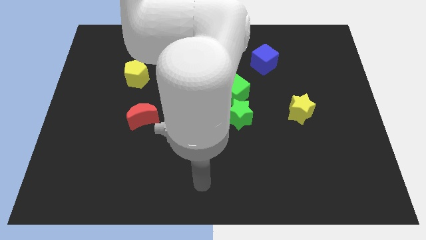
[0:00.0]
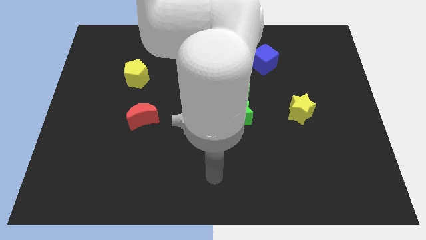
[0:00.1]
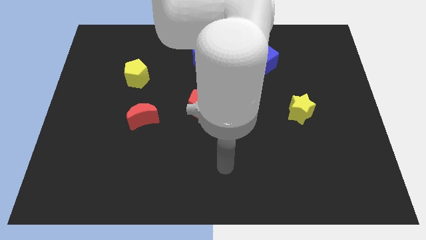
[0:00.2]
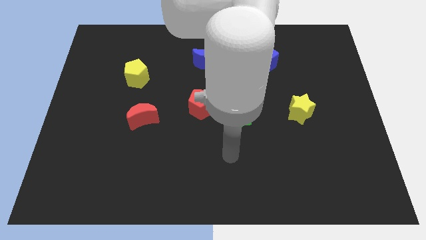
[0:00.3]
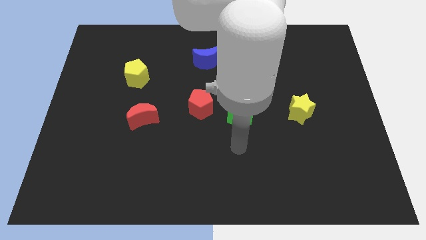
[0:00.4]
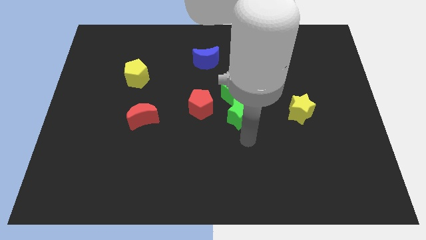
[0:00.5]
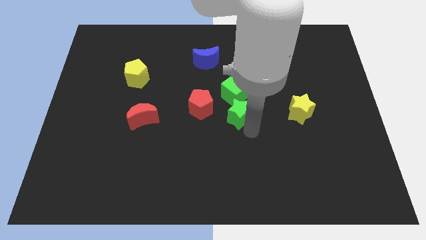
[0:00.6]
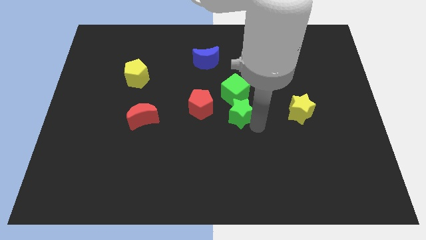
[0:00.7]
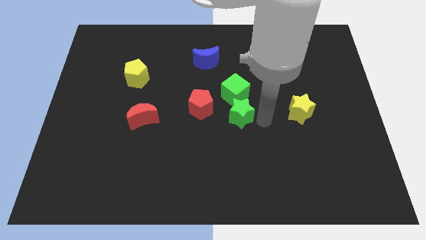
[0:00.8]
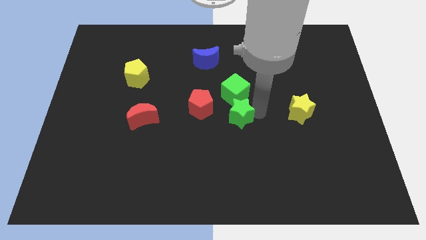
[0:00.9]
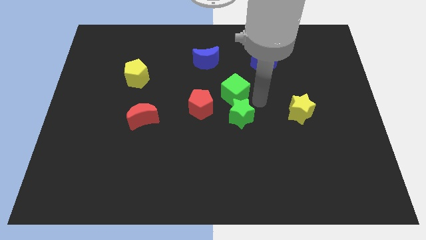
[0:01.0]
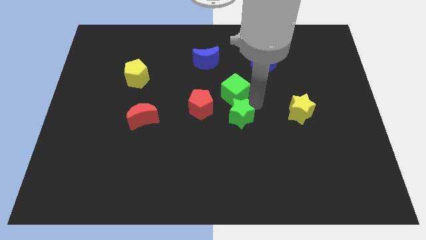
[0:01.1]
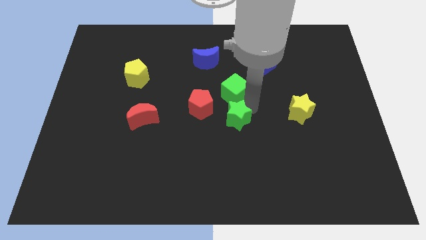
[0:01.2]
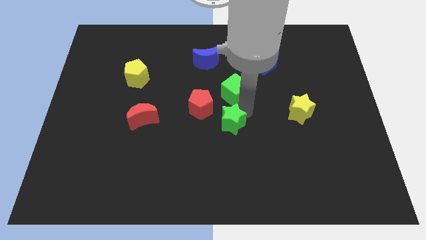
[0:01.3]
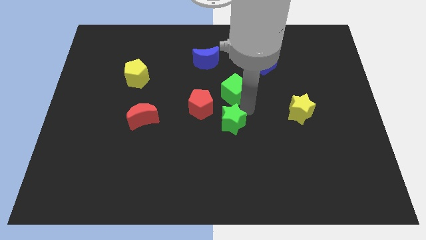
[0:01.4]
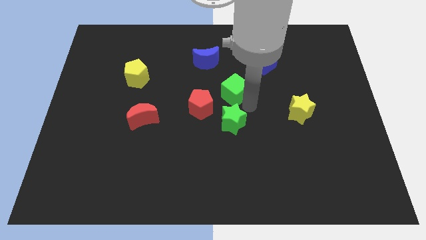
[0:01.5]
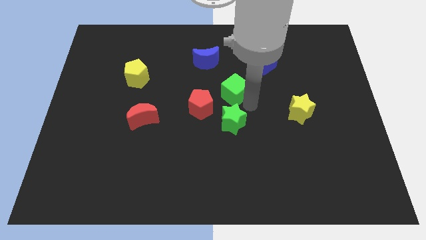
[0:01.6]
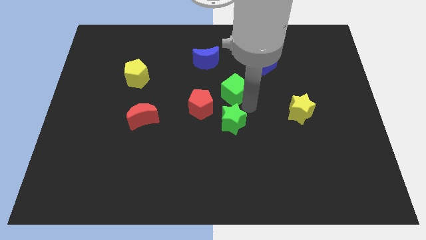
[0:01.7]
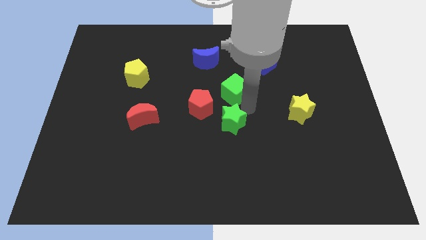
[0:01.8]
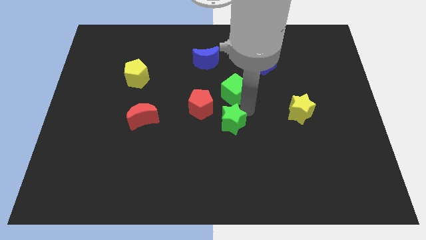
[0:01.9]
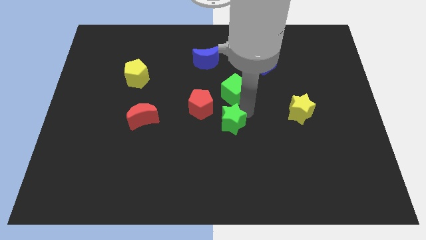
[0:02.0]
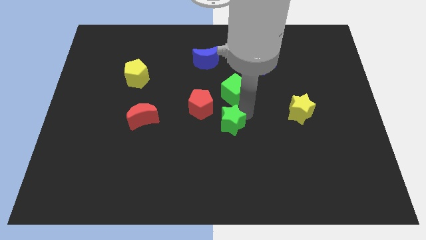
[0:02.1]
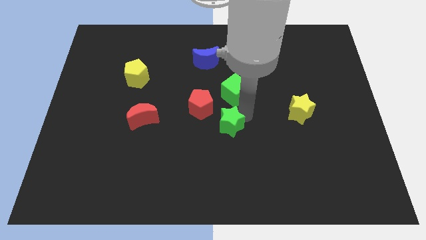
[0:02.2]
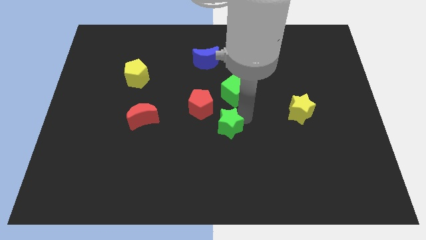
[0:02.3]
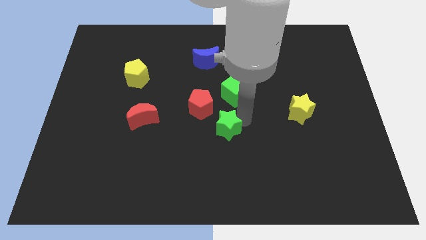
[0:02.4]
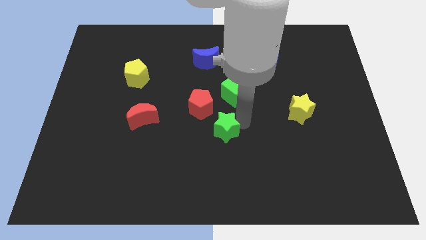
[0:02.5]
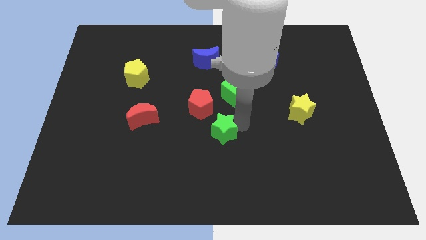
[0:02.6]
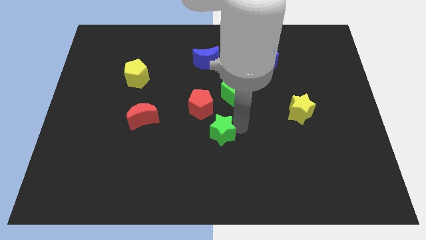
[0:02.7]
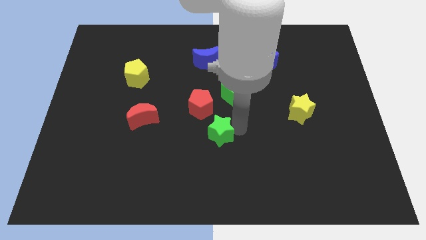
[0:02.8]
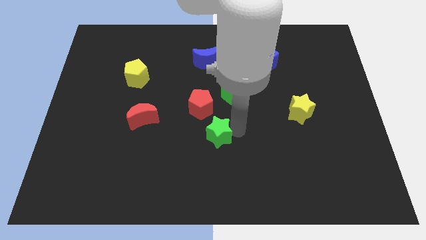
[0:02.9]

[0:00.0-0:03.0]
push the green star a little bit down and to the left

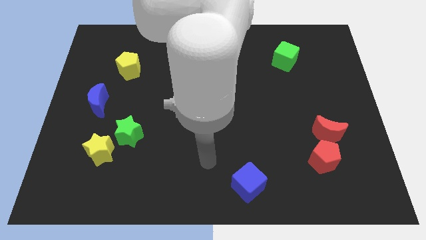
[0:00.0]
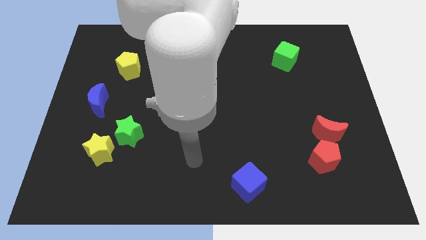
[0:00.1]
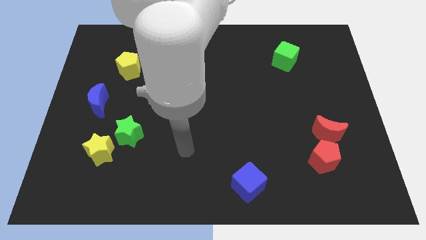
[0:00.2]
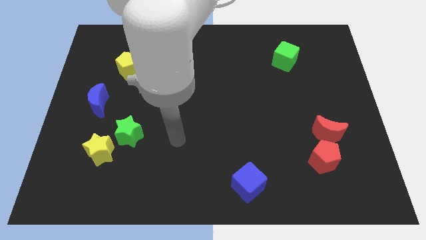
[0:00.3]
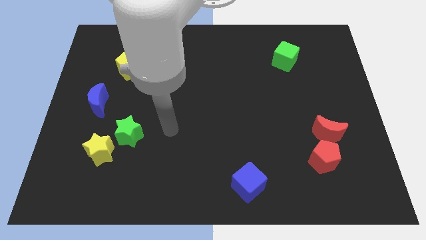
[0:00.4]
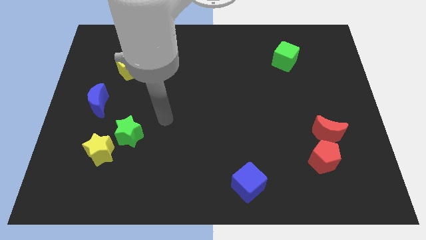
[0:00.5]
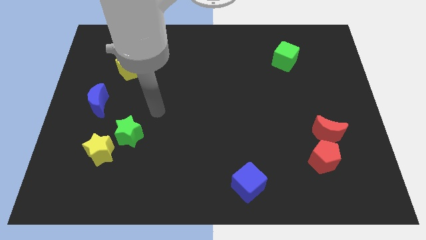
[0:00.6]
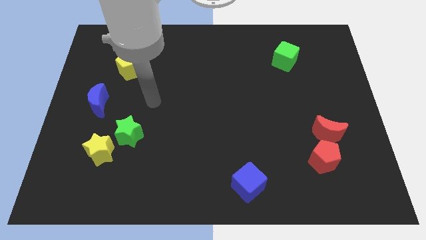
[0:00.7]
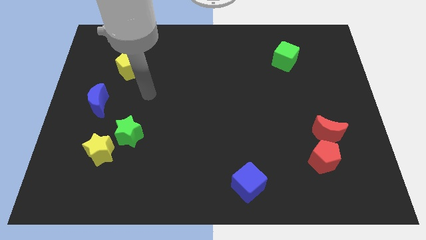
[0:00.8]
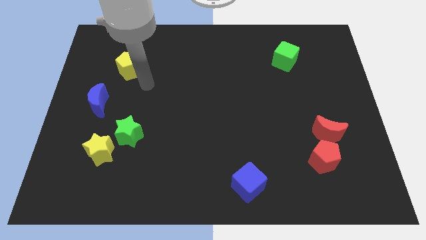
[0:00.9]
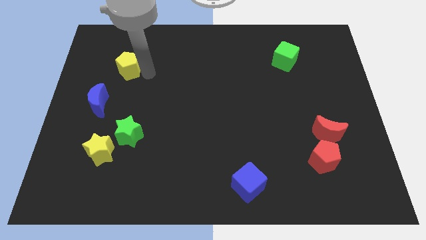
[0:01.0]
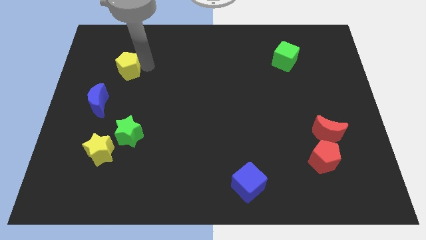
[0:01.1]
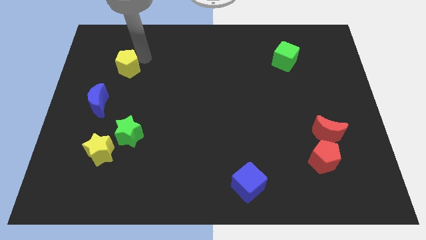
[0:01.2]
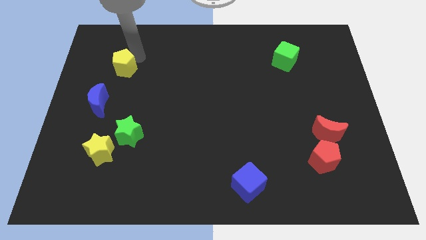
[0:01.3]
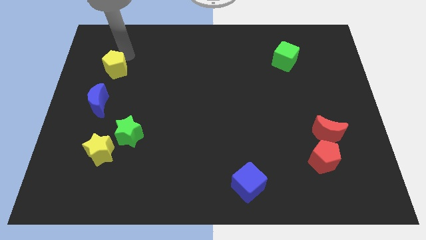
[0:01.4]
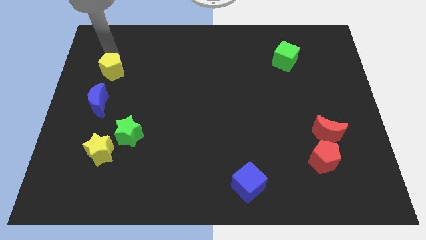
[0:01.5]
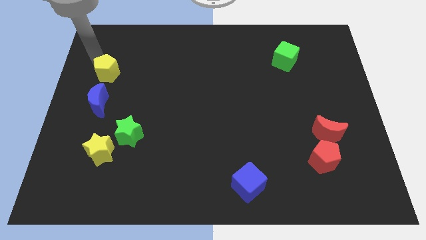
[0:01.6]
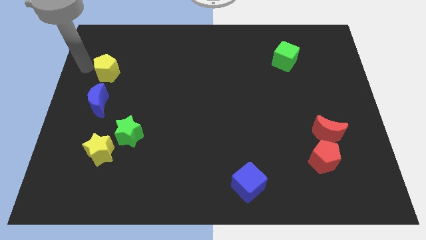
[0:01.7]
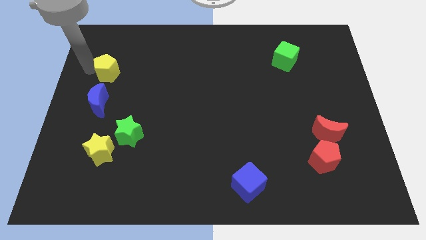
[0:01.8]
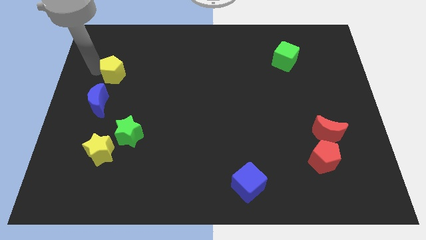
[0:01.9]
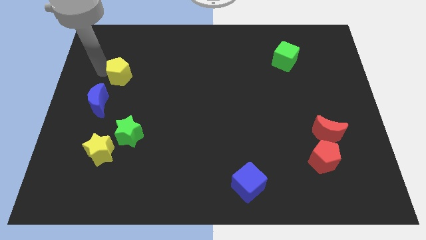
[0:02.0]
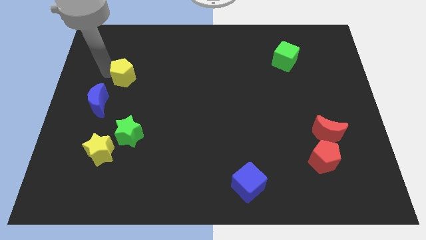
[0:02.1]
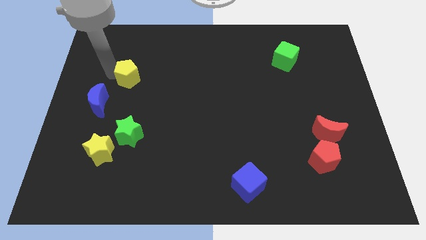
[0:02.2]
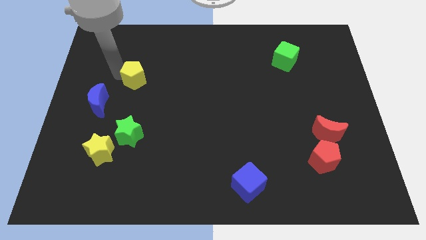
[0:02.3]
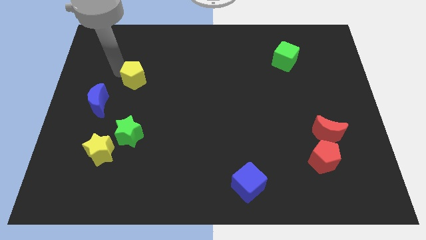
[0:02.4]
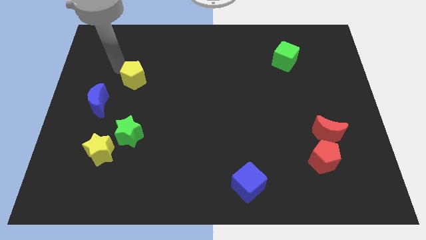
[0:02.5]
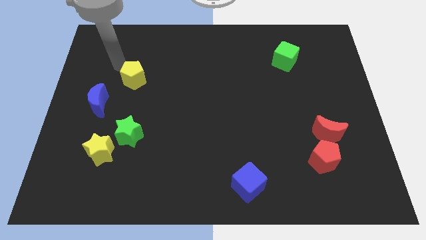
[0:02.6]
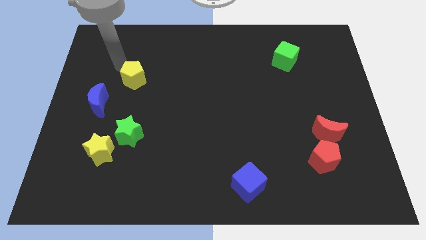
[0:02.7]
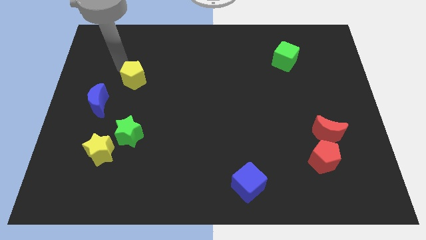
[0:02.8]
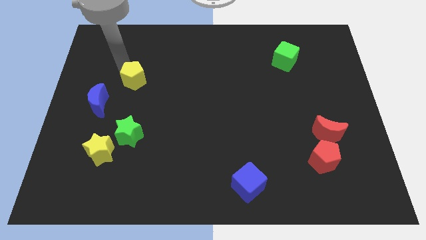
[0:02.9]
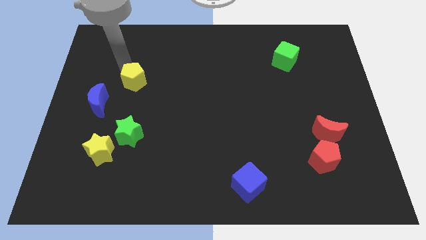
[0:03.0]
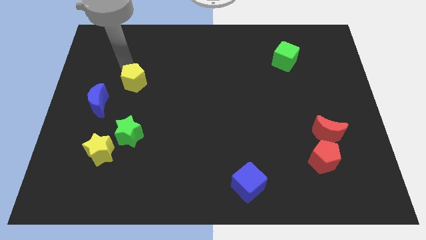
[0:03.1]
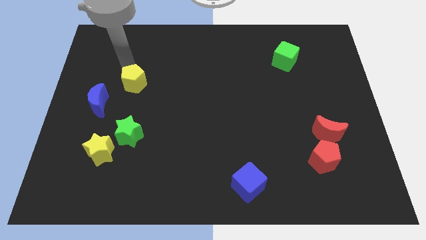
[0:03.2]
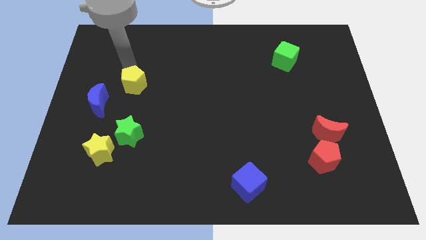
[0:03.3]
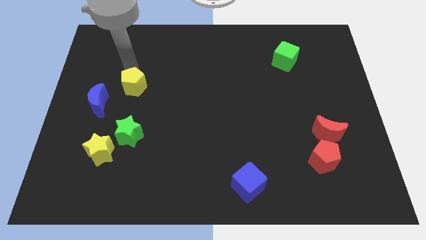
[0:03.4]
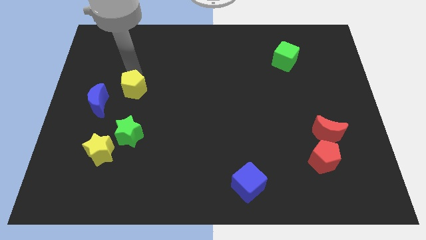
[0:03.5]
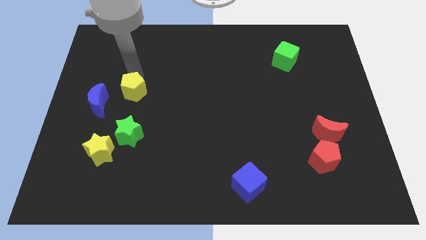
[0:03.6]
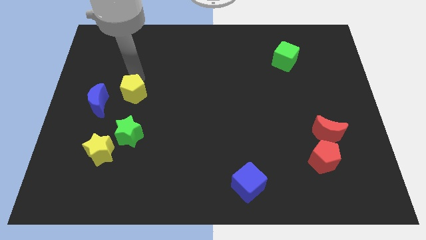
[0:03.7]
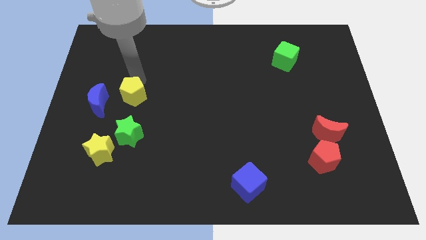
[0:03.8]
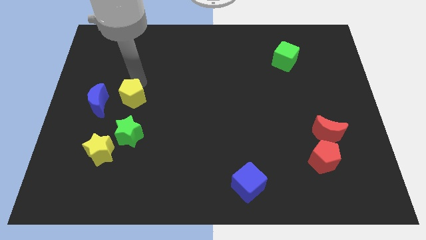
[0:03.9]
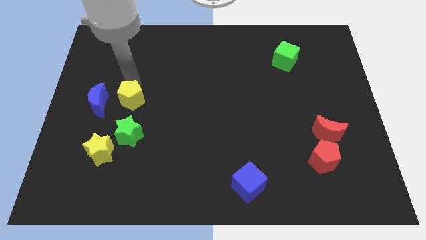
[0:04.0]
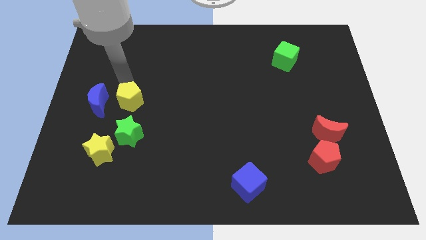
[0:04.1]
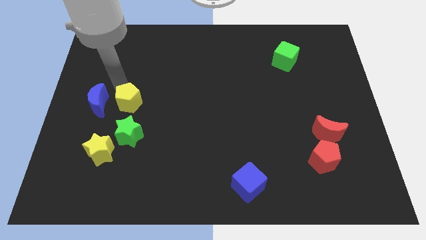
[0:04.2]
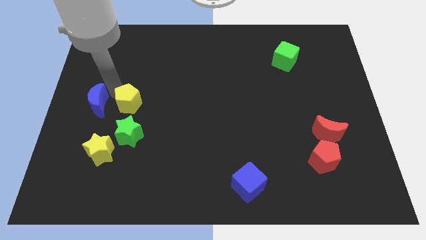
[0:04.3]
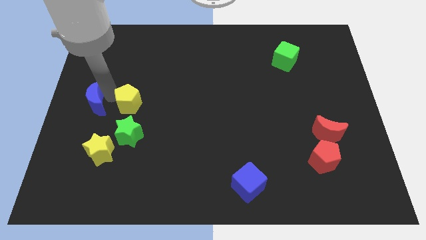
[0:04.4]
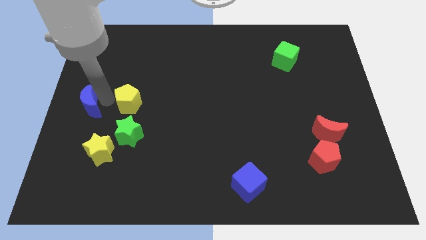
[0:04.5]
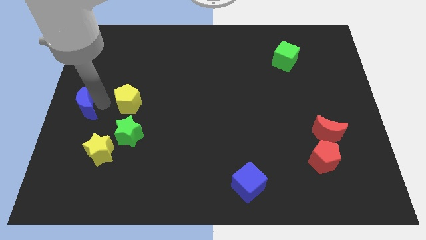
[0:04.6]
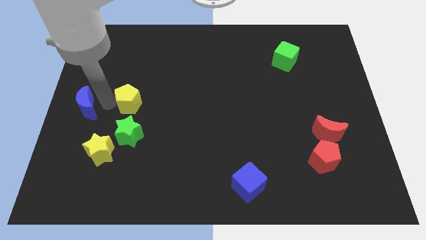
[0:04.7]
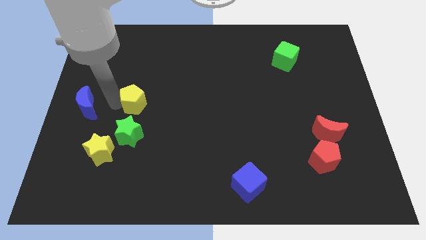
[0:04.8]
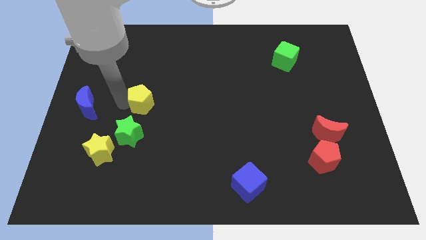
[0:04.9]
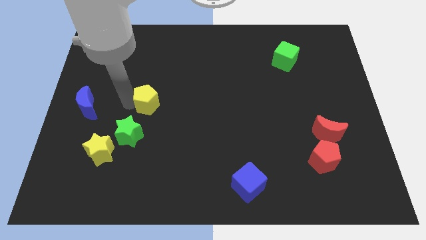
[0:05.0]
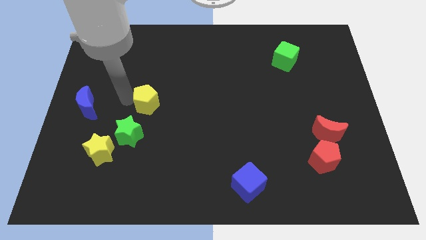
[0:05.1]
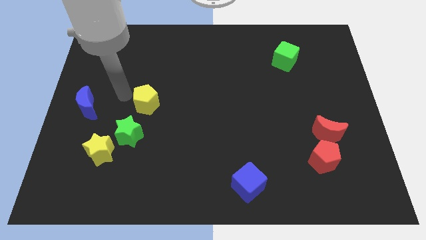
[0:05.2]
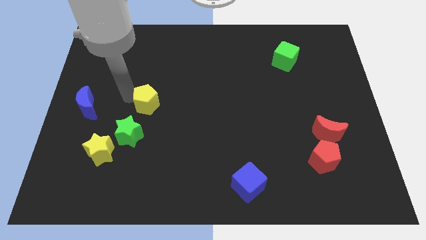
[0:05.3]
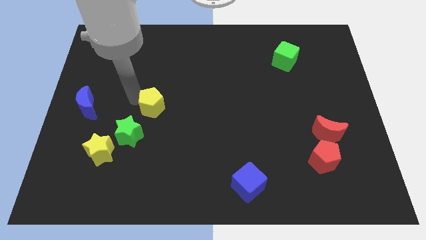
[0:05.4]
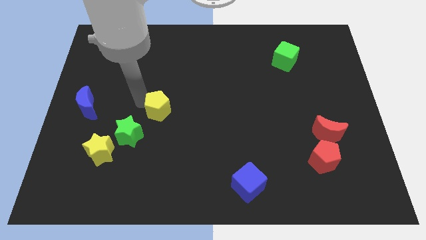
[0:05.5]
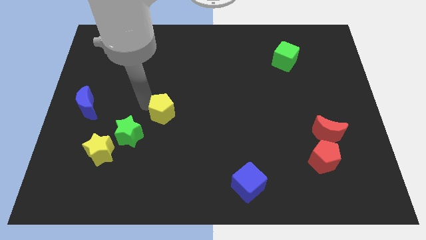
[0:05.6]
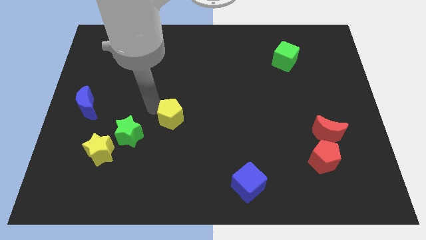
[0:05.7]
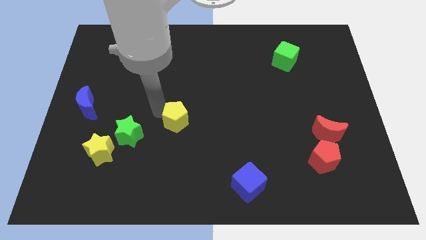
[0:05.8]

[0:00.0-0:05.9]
slide the yellow pentagon down and right diagonally
